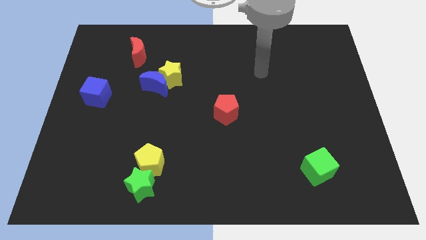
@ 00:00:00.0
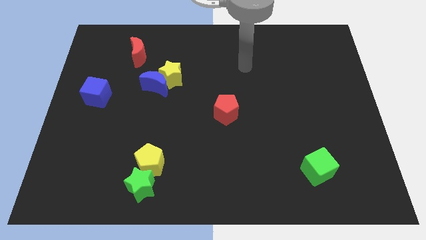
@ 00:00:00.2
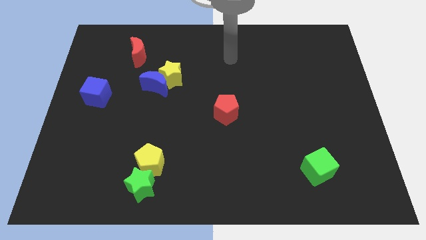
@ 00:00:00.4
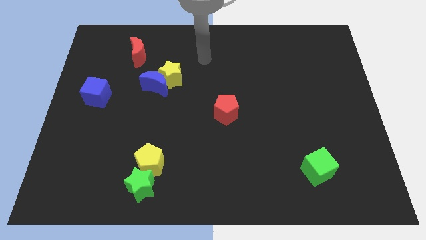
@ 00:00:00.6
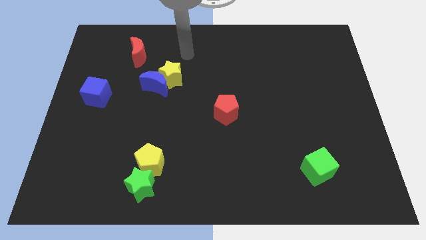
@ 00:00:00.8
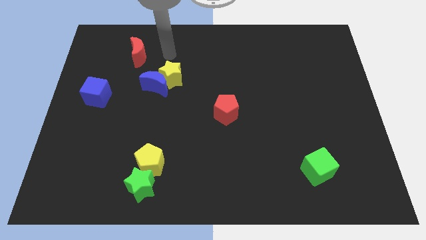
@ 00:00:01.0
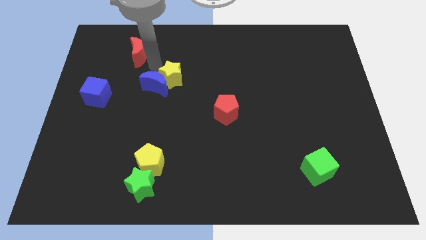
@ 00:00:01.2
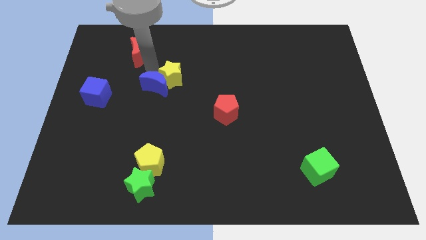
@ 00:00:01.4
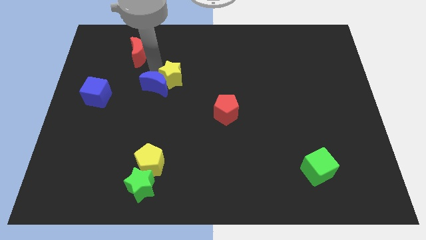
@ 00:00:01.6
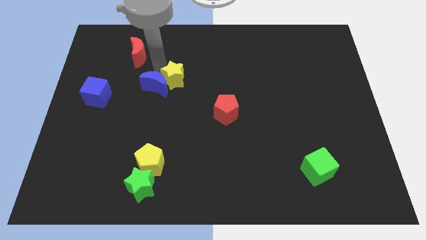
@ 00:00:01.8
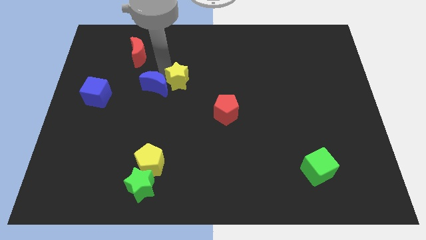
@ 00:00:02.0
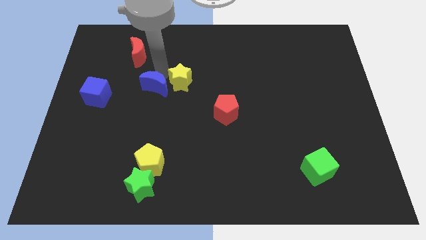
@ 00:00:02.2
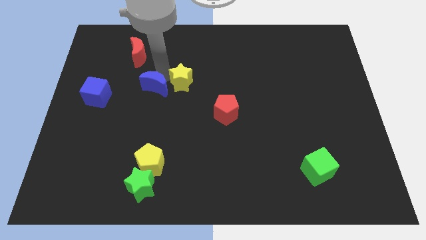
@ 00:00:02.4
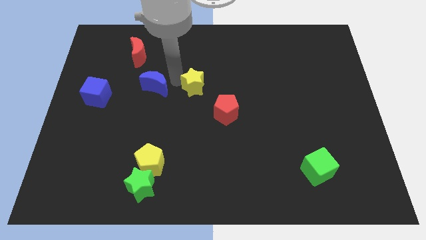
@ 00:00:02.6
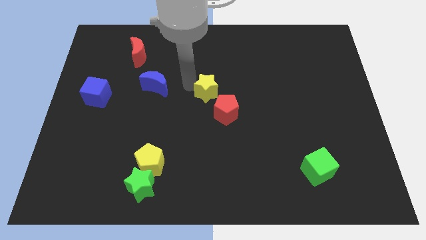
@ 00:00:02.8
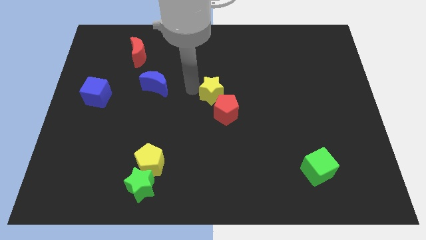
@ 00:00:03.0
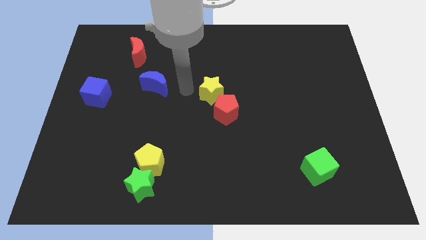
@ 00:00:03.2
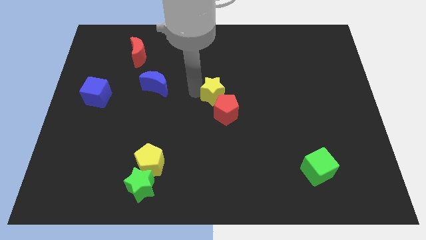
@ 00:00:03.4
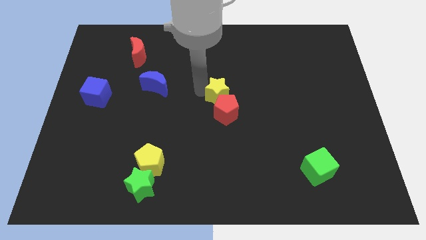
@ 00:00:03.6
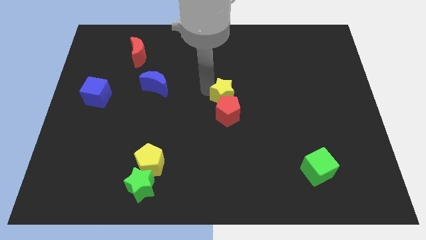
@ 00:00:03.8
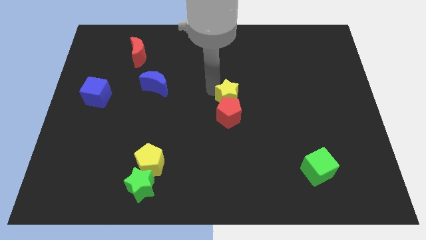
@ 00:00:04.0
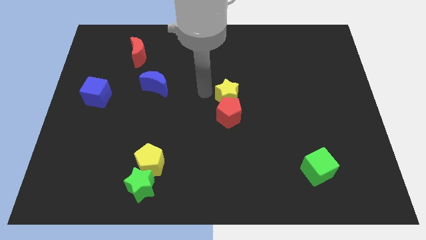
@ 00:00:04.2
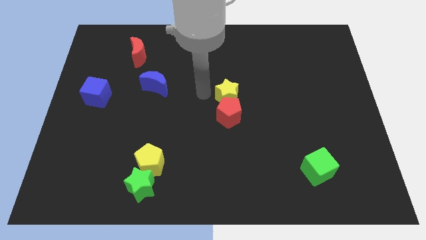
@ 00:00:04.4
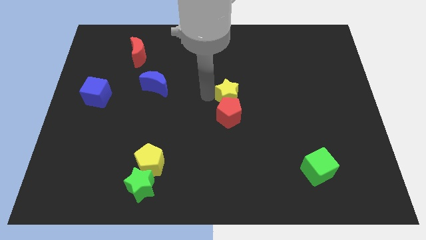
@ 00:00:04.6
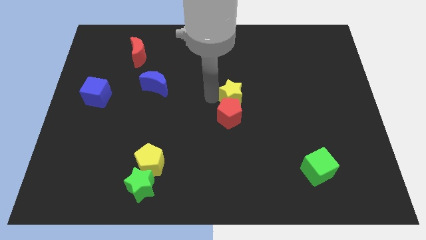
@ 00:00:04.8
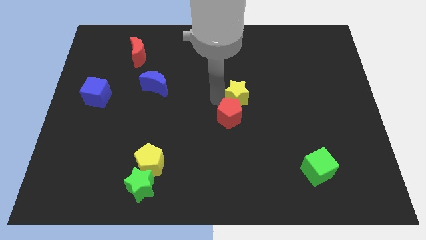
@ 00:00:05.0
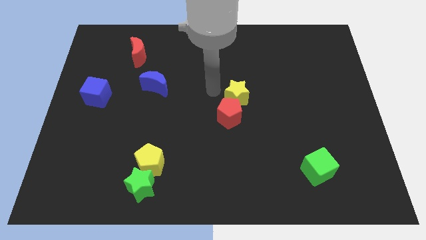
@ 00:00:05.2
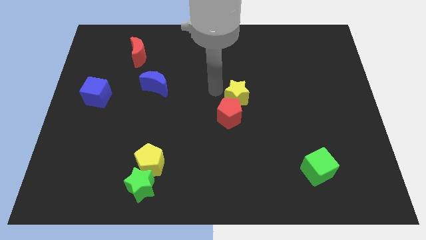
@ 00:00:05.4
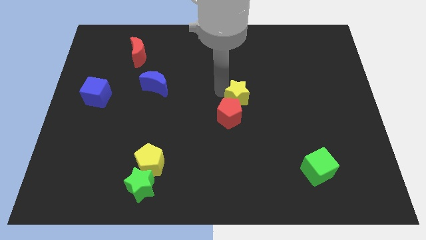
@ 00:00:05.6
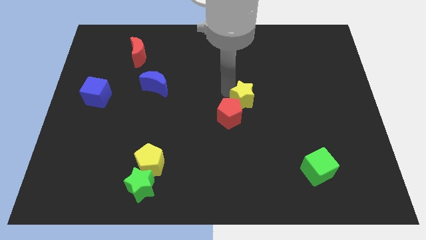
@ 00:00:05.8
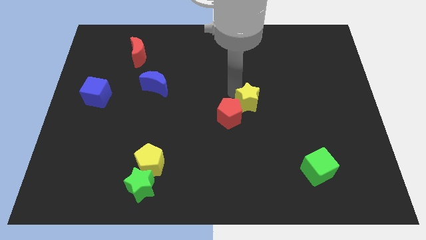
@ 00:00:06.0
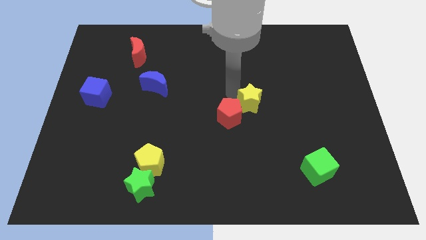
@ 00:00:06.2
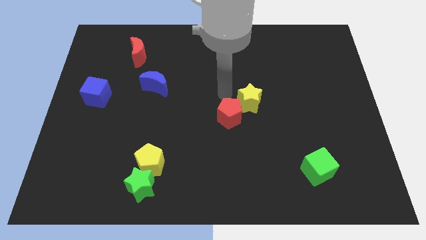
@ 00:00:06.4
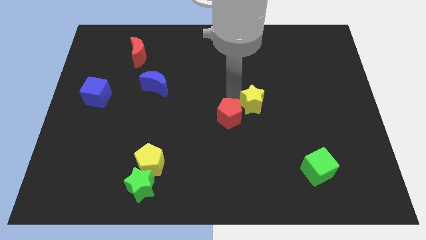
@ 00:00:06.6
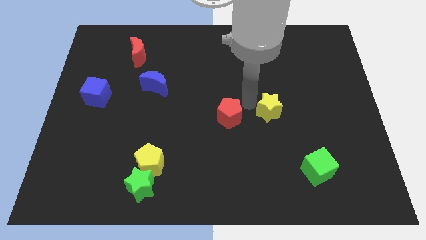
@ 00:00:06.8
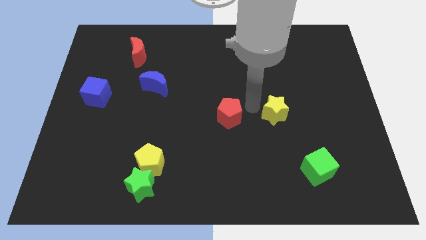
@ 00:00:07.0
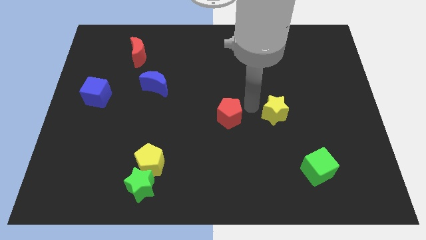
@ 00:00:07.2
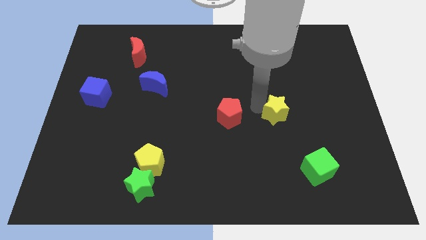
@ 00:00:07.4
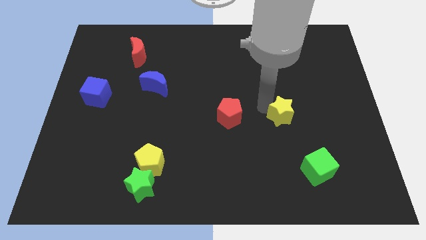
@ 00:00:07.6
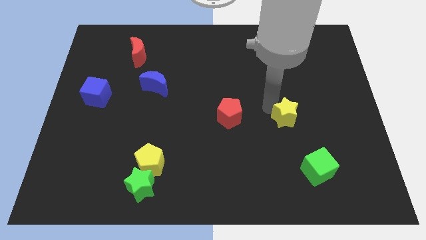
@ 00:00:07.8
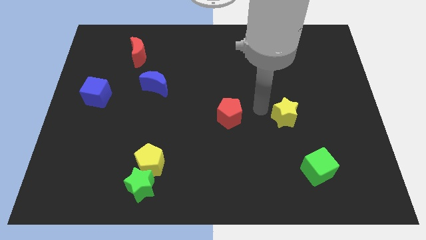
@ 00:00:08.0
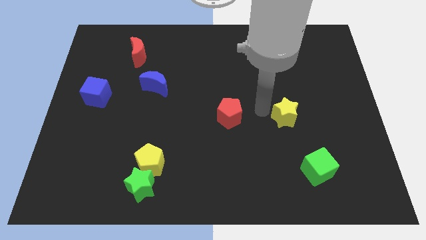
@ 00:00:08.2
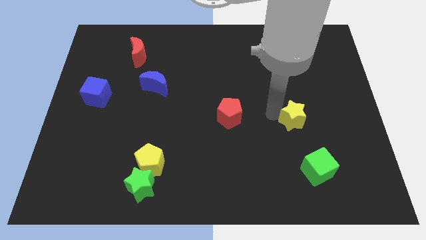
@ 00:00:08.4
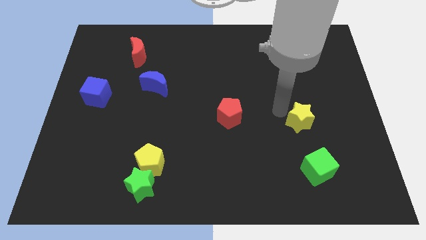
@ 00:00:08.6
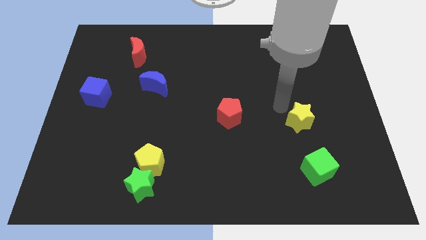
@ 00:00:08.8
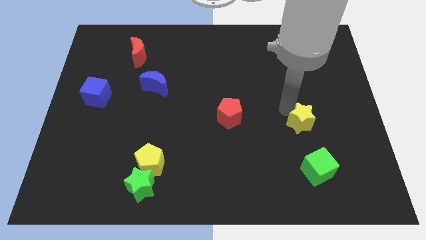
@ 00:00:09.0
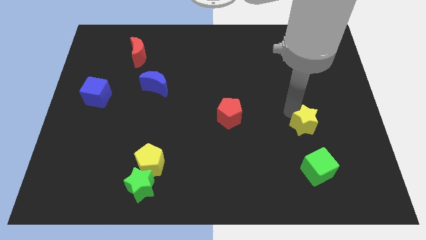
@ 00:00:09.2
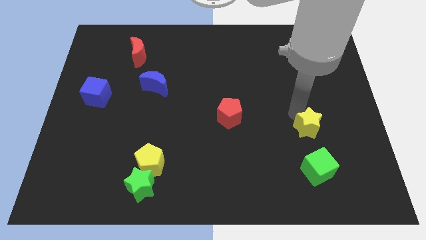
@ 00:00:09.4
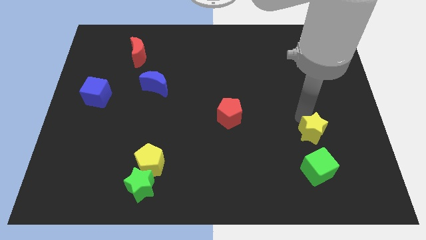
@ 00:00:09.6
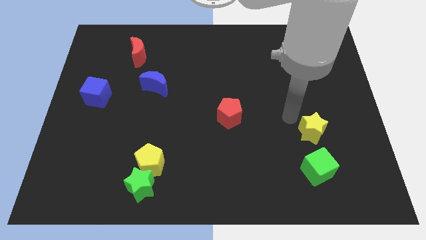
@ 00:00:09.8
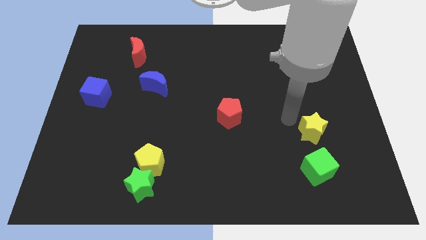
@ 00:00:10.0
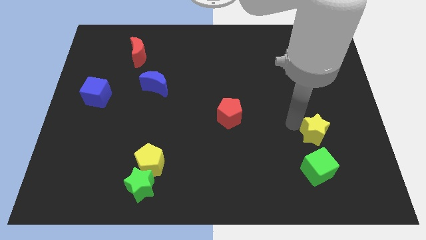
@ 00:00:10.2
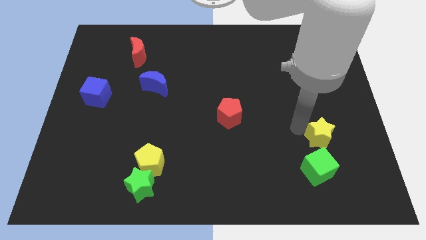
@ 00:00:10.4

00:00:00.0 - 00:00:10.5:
move the yellow star diagonally up and to the right of the green cube

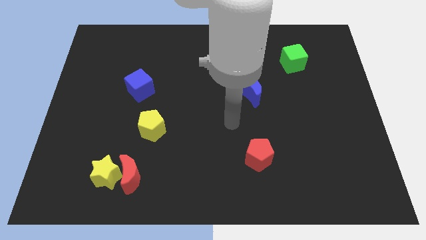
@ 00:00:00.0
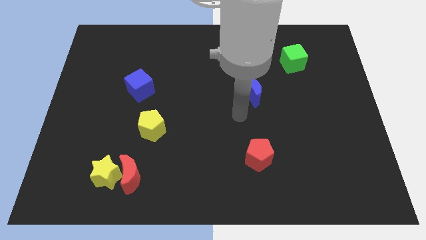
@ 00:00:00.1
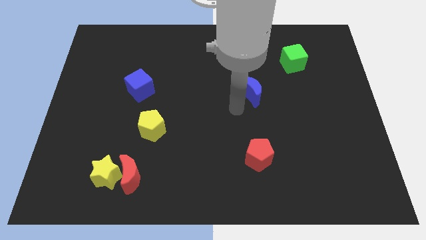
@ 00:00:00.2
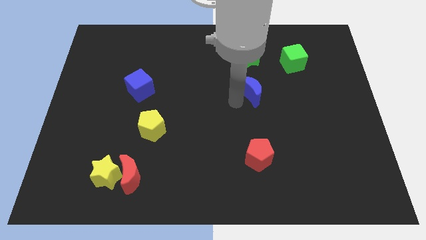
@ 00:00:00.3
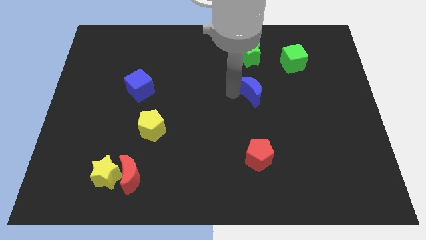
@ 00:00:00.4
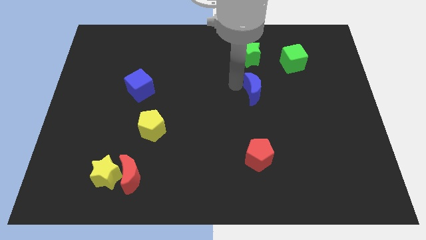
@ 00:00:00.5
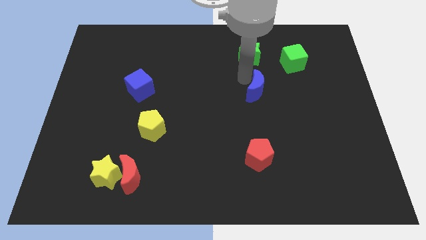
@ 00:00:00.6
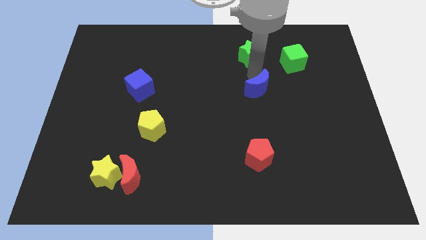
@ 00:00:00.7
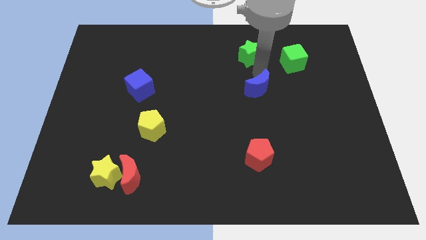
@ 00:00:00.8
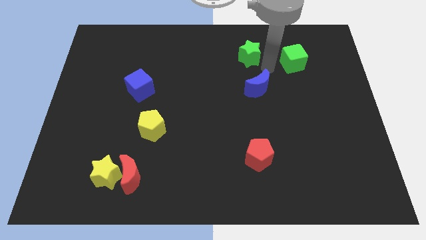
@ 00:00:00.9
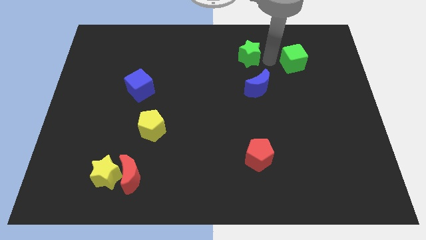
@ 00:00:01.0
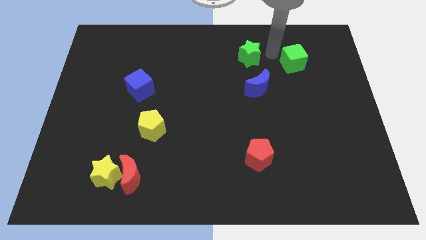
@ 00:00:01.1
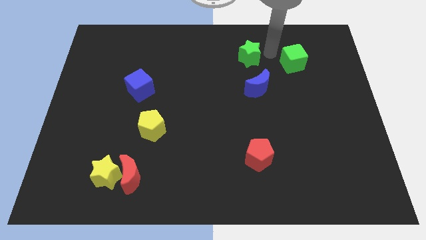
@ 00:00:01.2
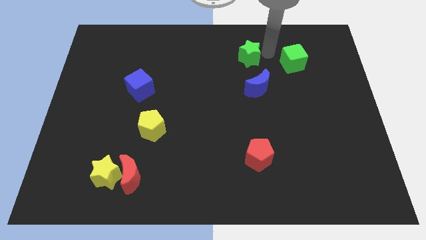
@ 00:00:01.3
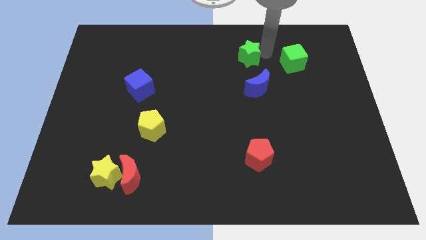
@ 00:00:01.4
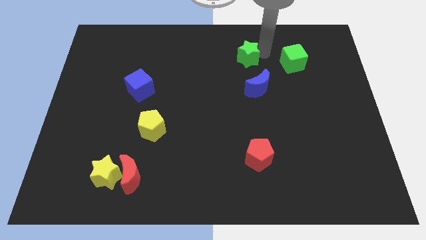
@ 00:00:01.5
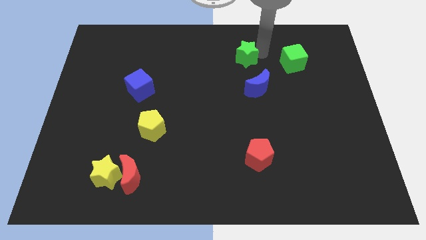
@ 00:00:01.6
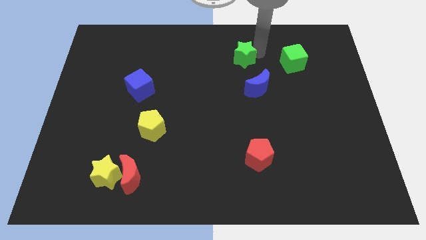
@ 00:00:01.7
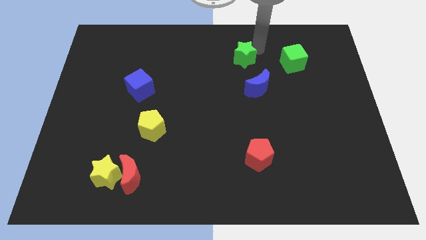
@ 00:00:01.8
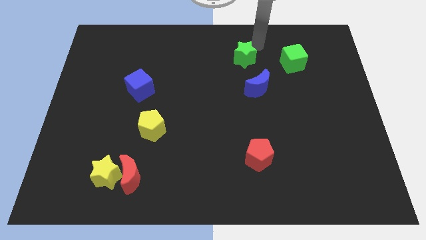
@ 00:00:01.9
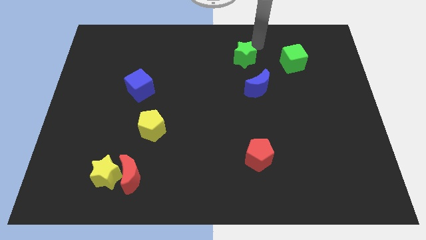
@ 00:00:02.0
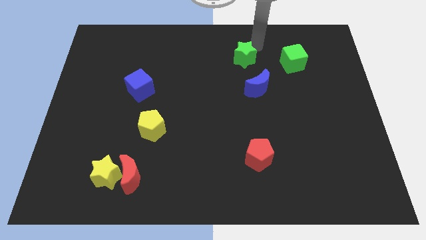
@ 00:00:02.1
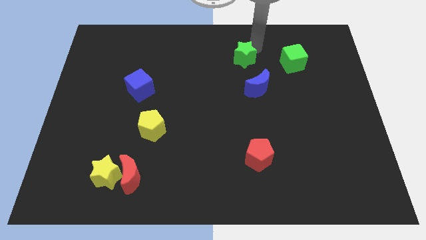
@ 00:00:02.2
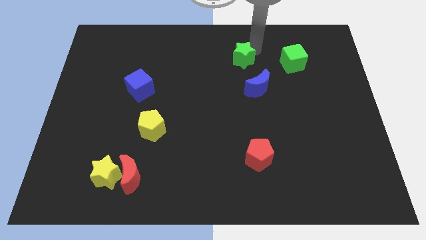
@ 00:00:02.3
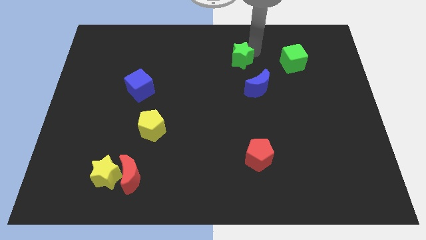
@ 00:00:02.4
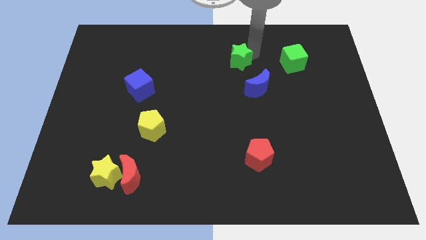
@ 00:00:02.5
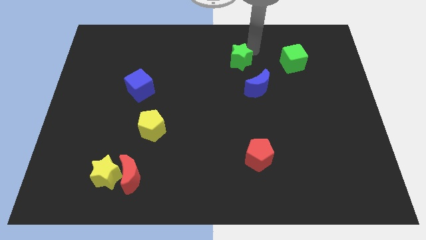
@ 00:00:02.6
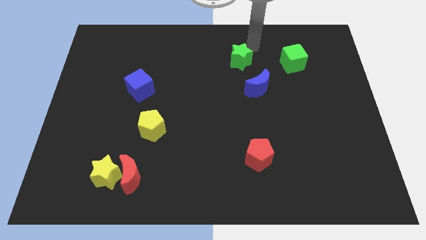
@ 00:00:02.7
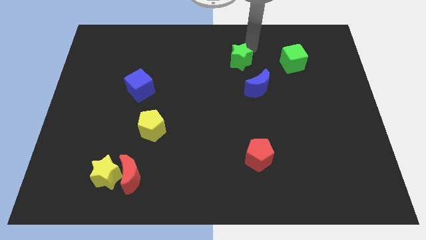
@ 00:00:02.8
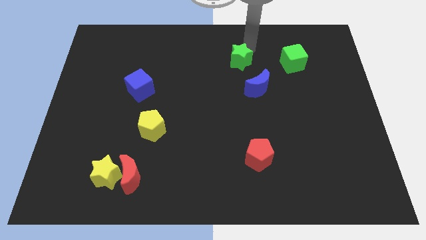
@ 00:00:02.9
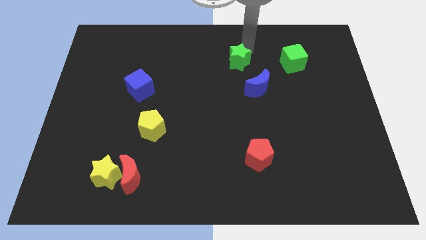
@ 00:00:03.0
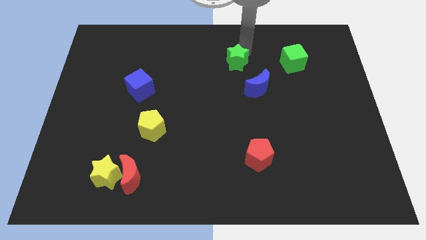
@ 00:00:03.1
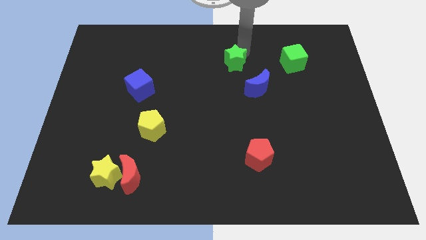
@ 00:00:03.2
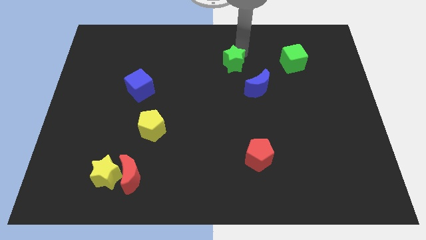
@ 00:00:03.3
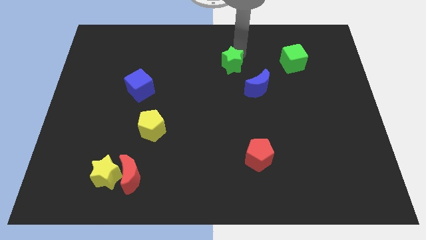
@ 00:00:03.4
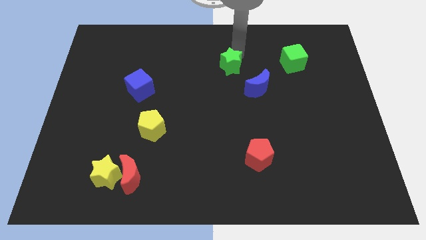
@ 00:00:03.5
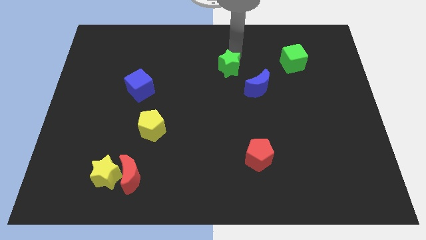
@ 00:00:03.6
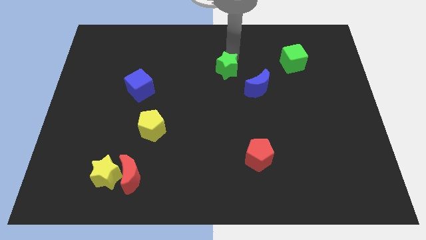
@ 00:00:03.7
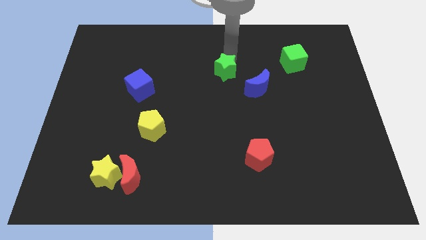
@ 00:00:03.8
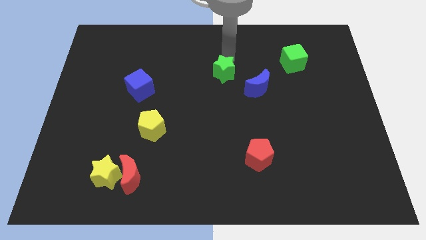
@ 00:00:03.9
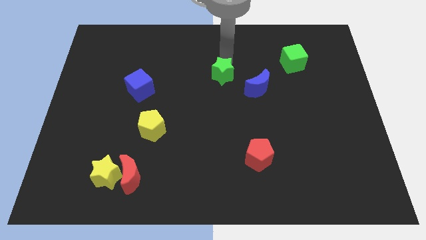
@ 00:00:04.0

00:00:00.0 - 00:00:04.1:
move the green star left of the blue moon
